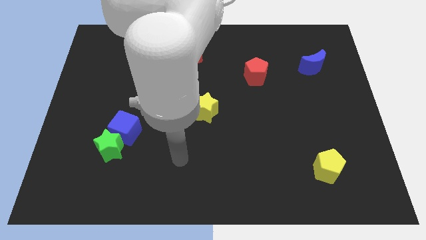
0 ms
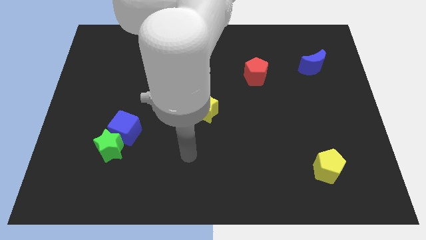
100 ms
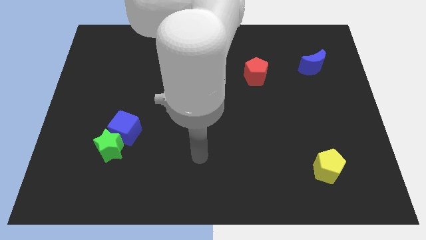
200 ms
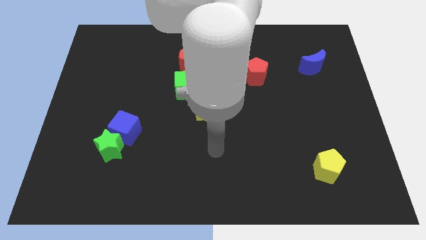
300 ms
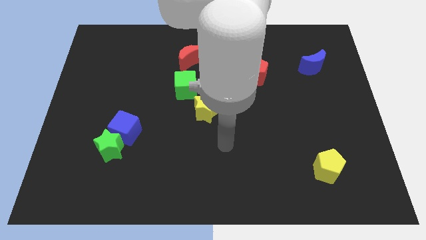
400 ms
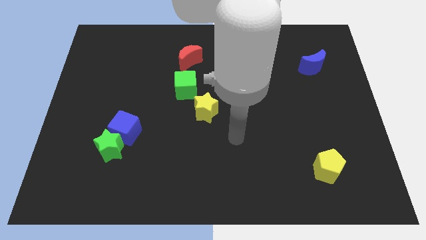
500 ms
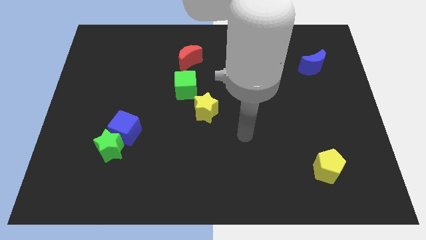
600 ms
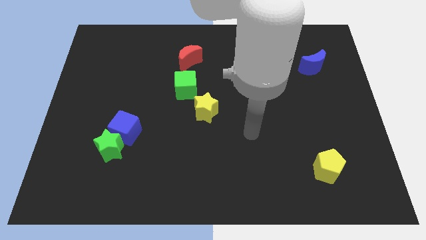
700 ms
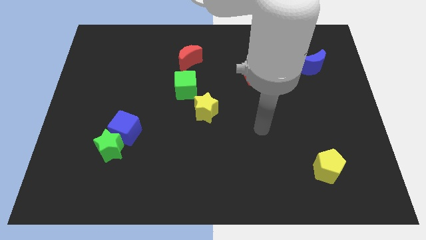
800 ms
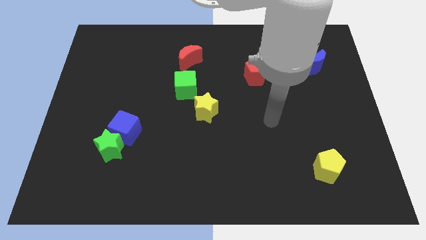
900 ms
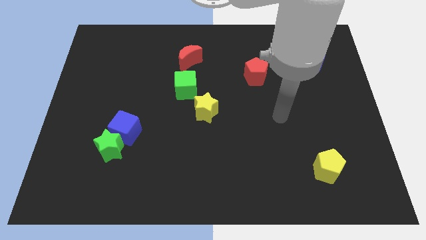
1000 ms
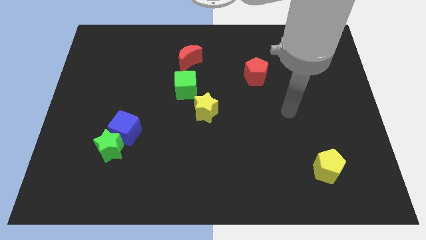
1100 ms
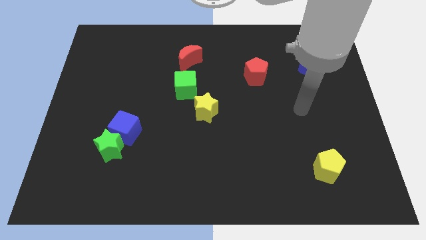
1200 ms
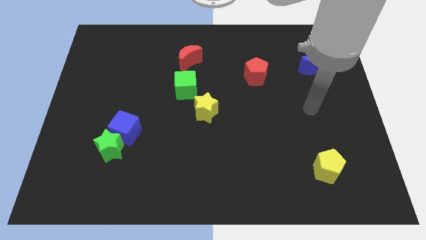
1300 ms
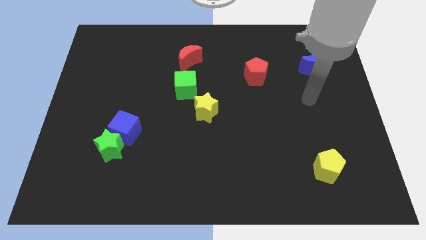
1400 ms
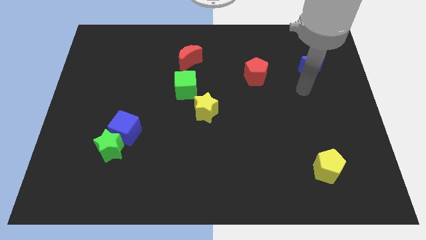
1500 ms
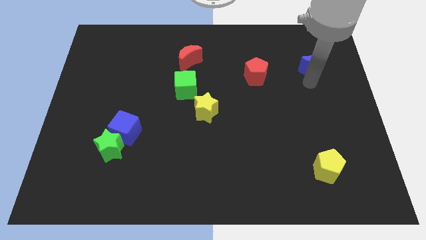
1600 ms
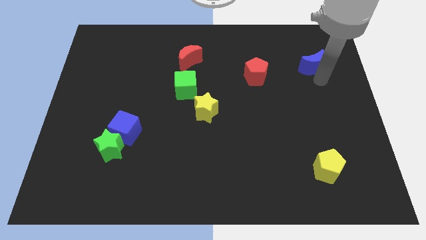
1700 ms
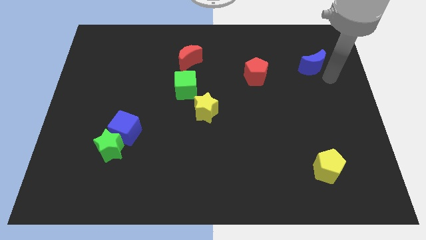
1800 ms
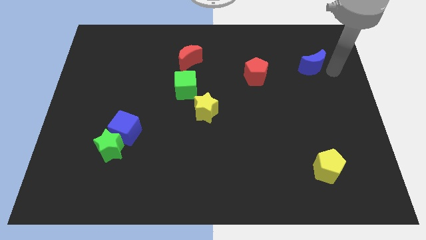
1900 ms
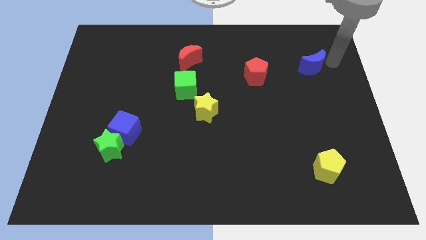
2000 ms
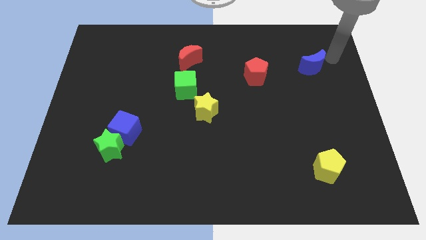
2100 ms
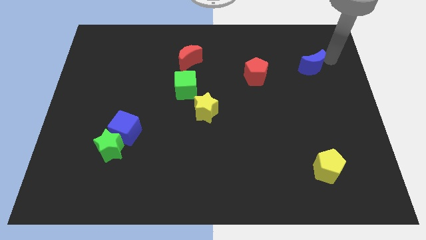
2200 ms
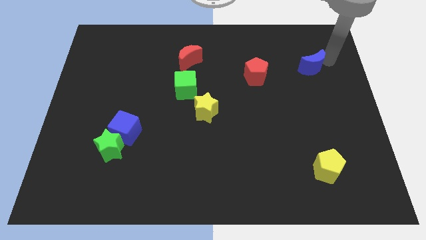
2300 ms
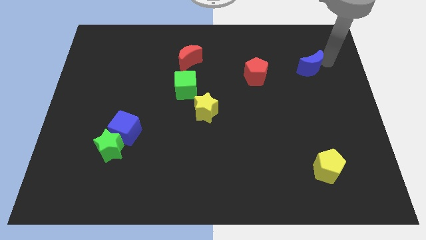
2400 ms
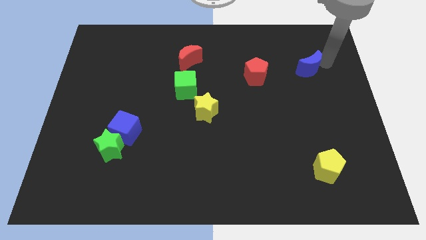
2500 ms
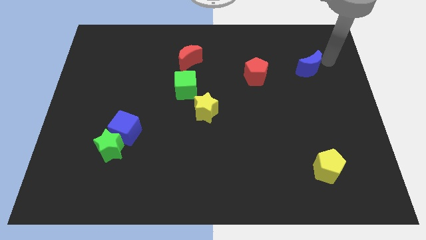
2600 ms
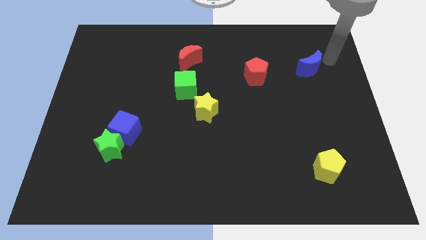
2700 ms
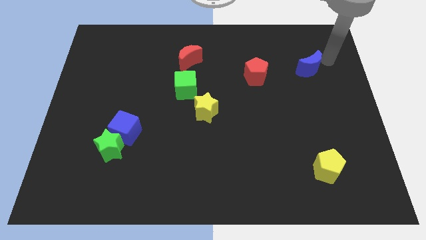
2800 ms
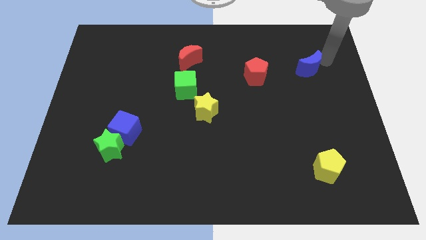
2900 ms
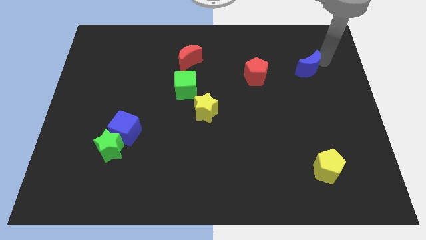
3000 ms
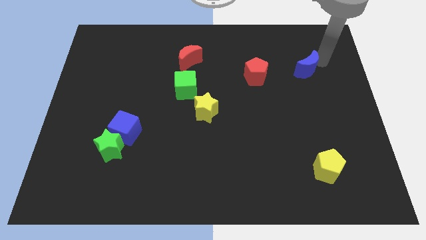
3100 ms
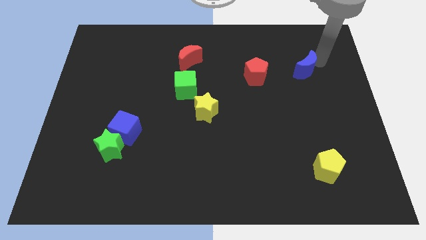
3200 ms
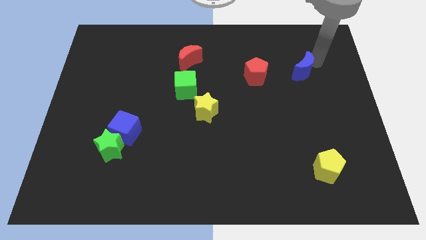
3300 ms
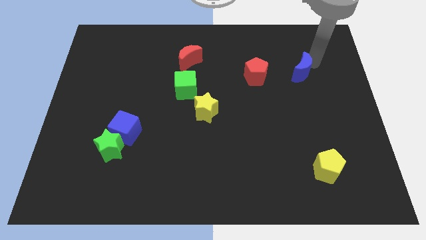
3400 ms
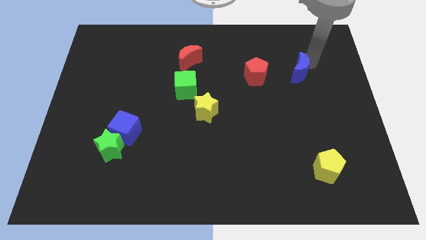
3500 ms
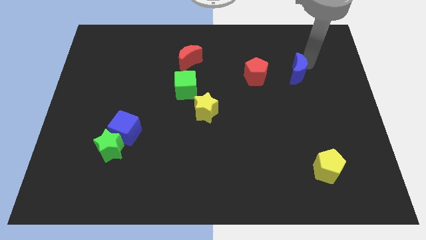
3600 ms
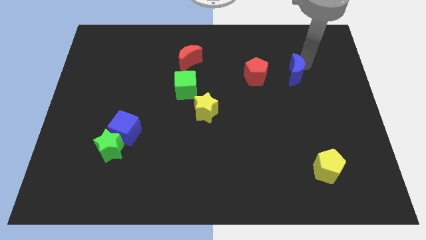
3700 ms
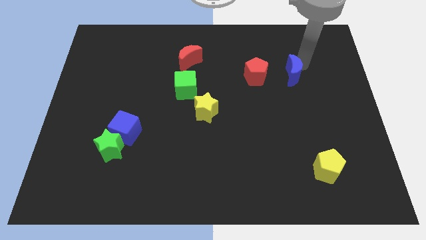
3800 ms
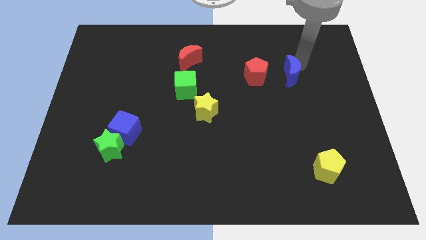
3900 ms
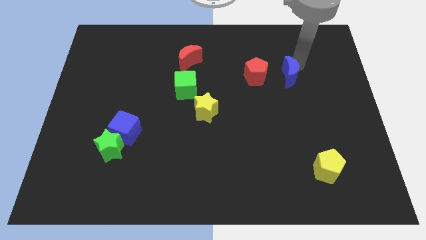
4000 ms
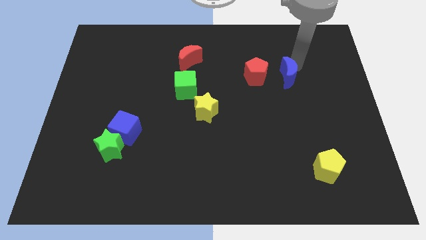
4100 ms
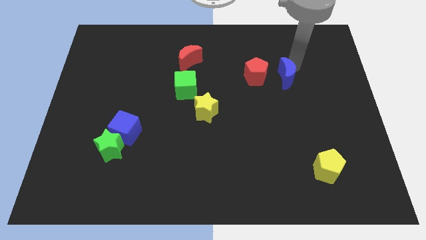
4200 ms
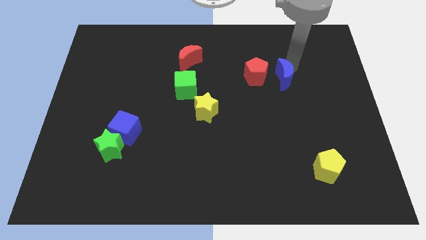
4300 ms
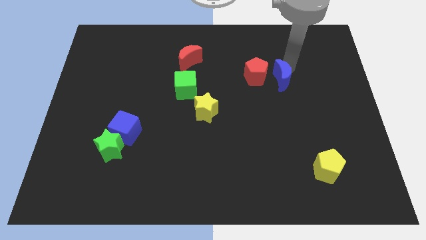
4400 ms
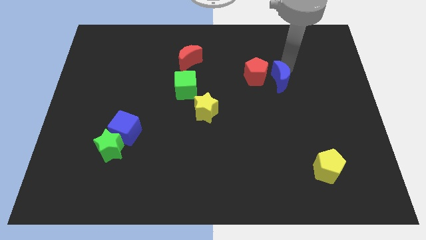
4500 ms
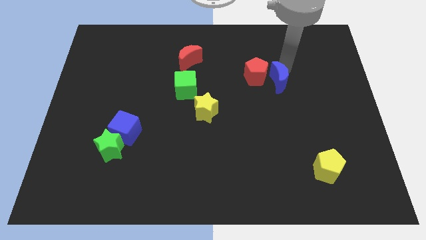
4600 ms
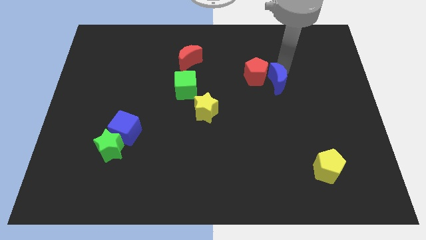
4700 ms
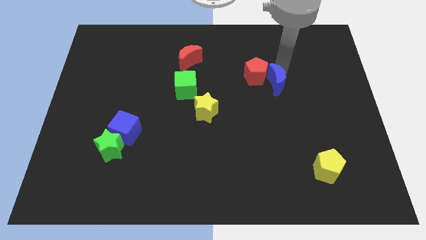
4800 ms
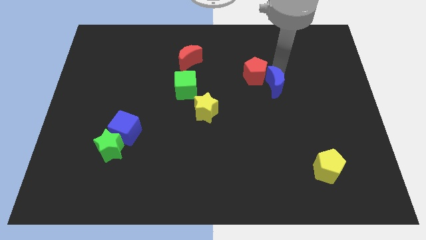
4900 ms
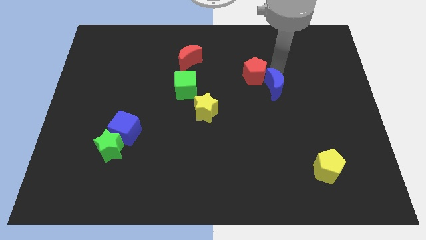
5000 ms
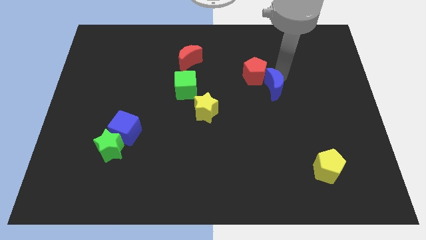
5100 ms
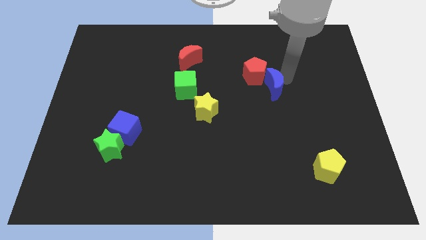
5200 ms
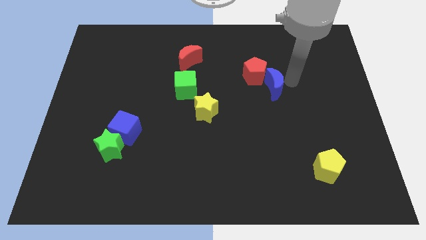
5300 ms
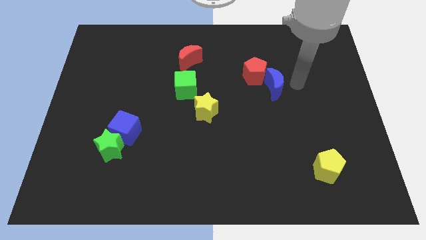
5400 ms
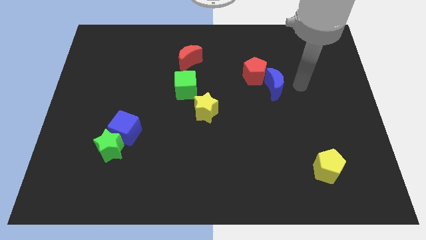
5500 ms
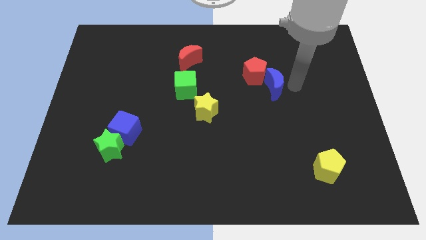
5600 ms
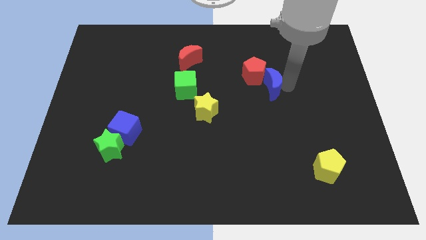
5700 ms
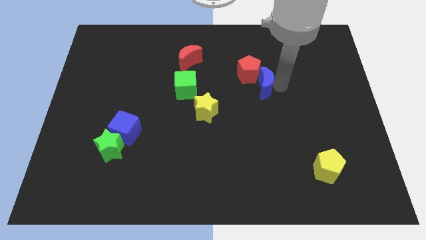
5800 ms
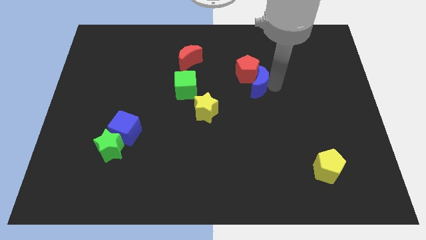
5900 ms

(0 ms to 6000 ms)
push the blue moon to the middle
